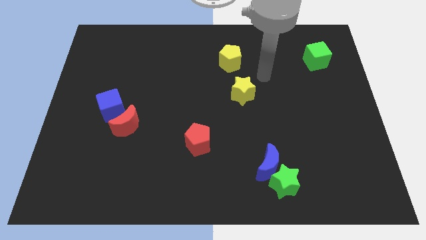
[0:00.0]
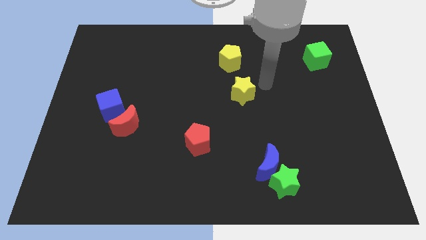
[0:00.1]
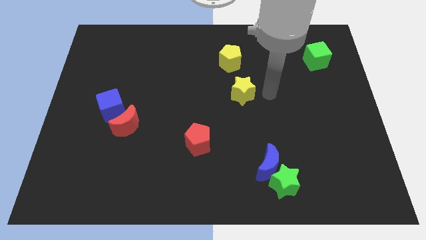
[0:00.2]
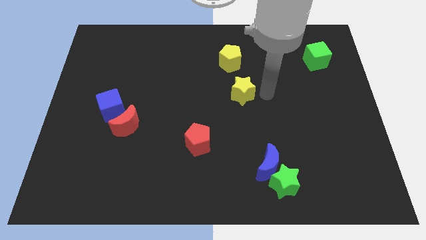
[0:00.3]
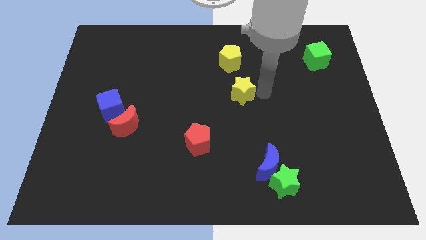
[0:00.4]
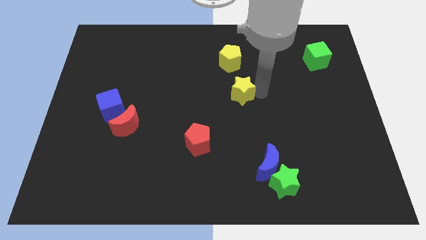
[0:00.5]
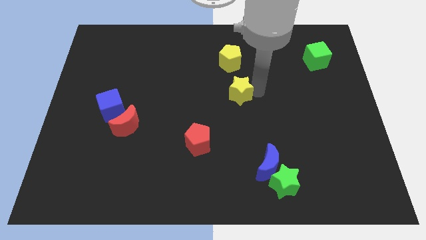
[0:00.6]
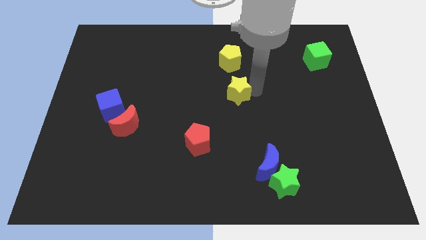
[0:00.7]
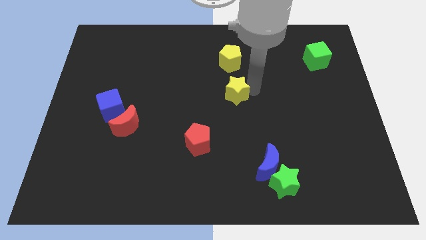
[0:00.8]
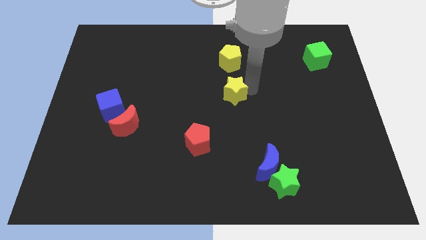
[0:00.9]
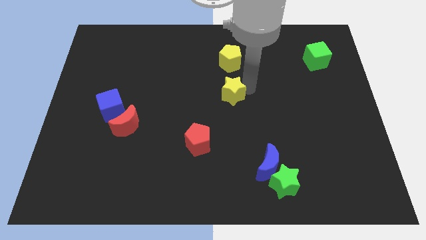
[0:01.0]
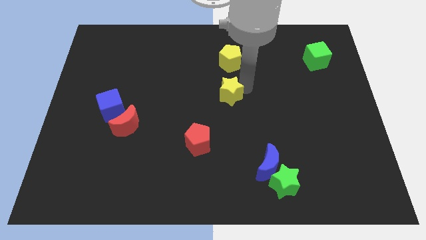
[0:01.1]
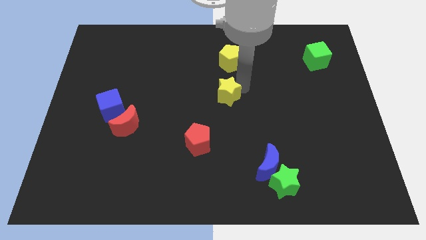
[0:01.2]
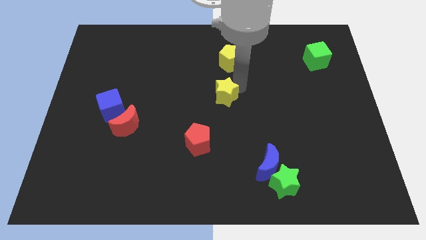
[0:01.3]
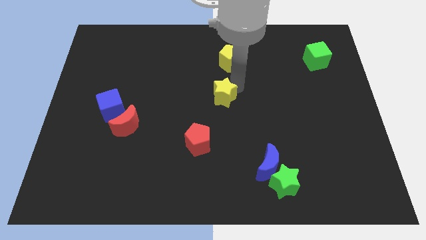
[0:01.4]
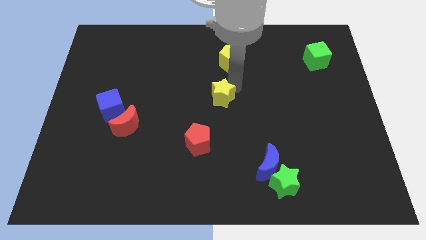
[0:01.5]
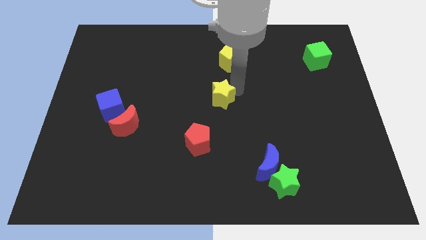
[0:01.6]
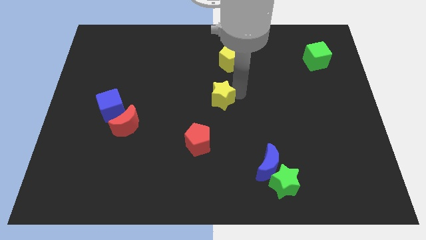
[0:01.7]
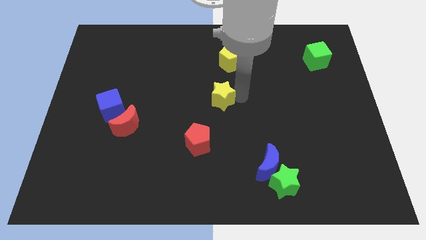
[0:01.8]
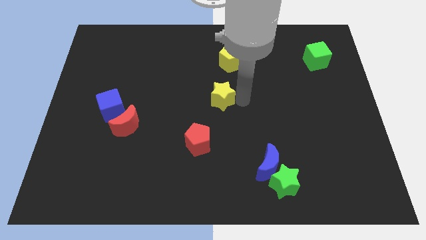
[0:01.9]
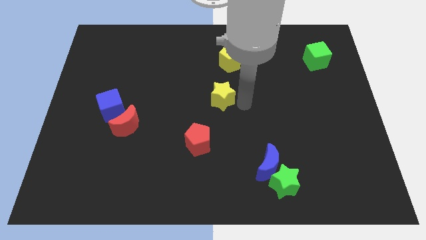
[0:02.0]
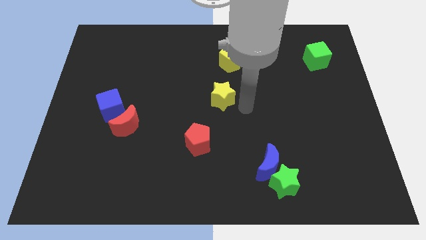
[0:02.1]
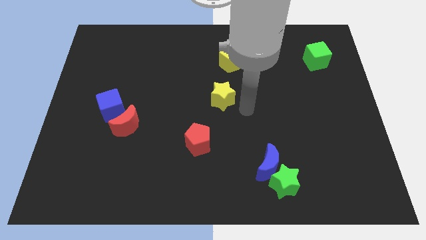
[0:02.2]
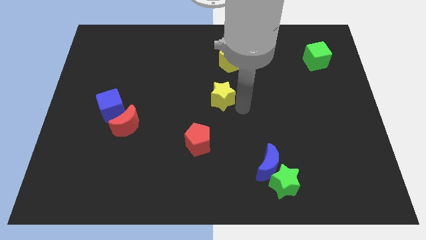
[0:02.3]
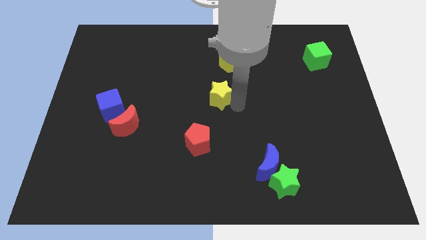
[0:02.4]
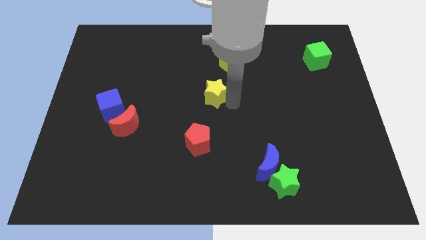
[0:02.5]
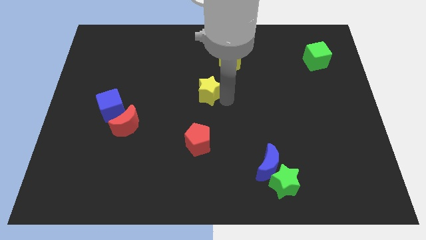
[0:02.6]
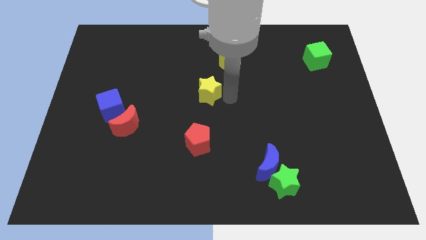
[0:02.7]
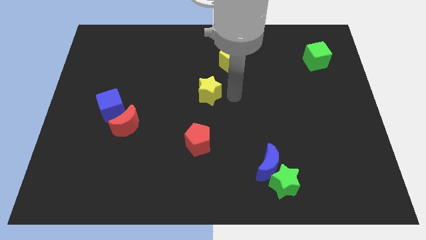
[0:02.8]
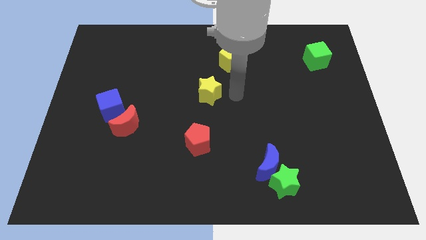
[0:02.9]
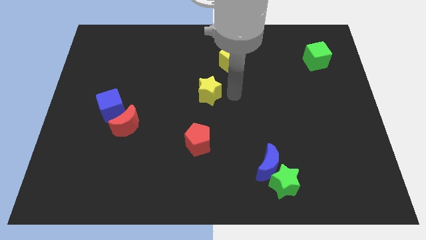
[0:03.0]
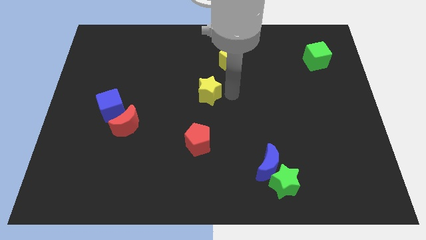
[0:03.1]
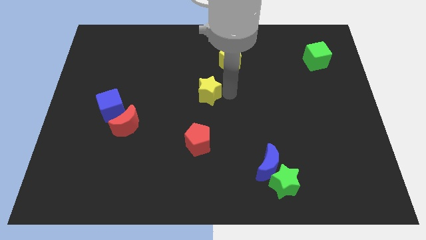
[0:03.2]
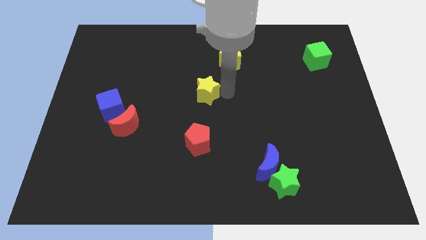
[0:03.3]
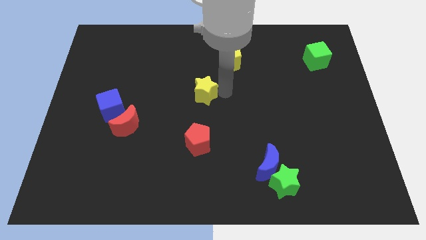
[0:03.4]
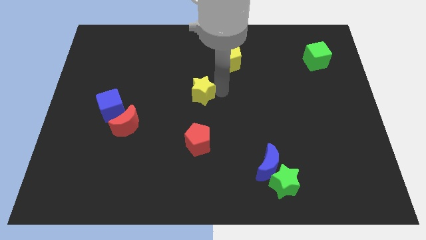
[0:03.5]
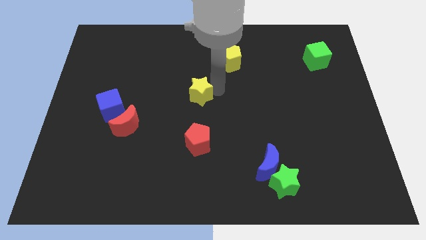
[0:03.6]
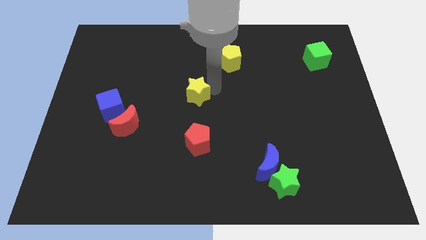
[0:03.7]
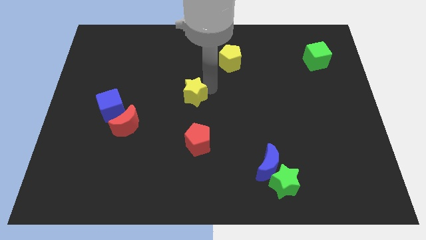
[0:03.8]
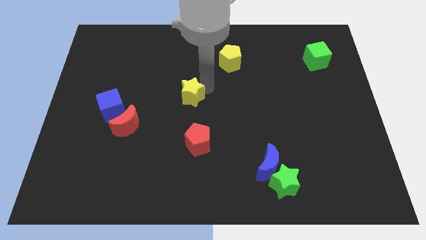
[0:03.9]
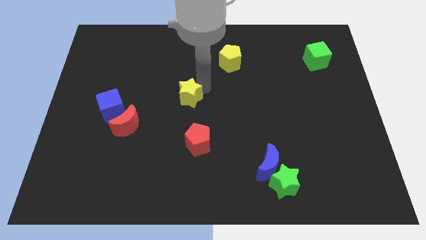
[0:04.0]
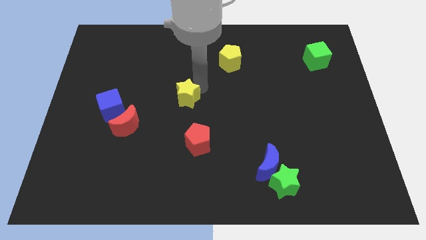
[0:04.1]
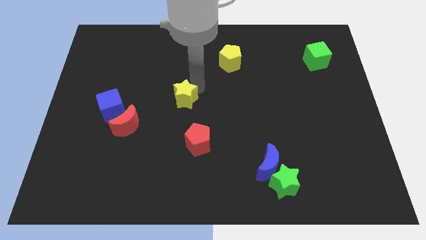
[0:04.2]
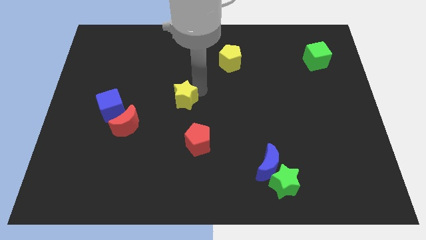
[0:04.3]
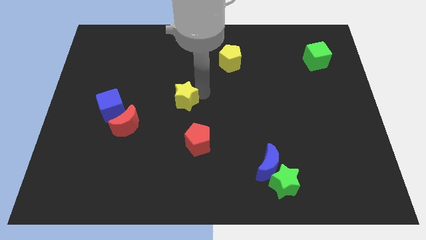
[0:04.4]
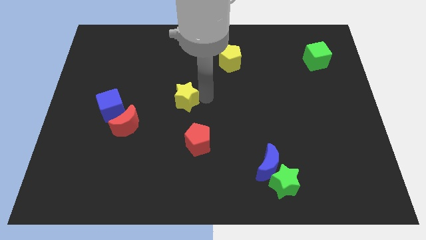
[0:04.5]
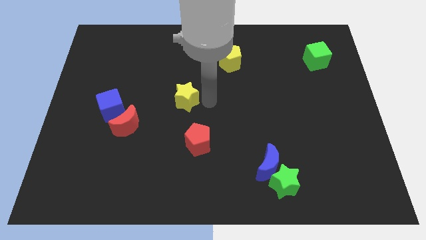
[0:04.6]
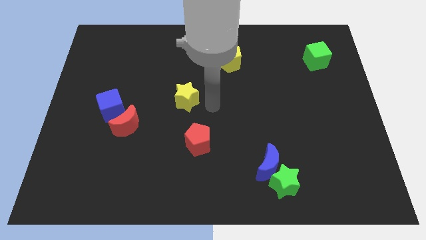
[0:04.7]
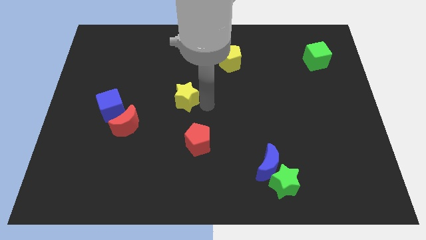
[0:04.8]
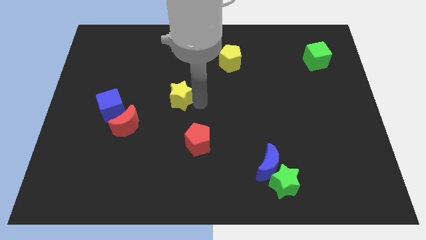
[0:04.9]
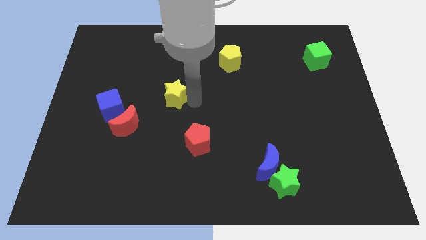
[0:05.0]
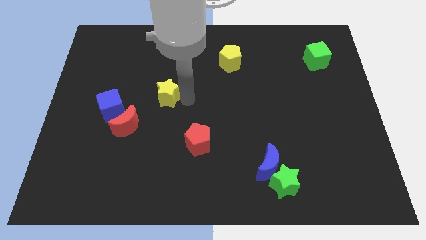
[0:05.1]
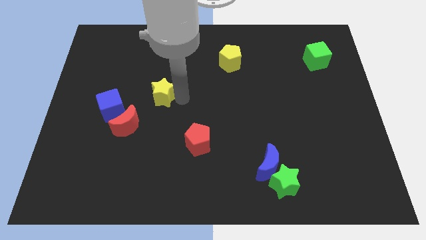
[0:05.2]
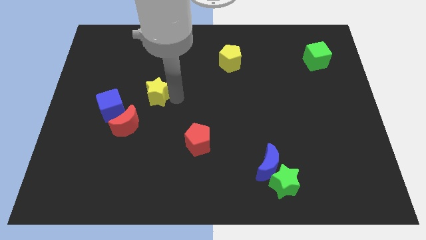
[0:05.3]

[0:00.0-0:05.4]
move the yellow star to the left

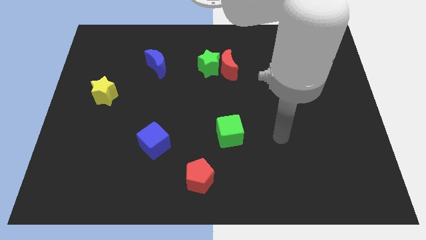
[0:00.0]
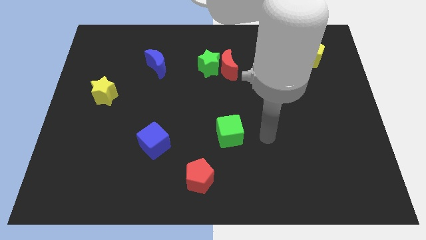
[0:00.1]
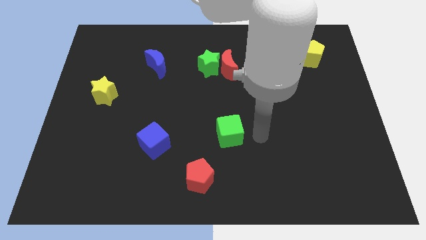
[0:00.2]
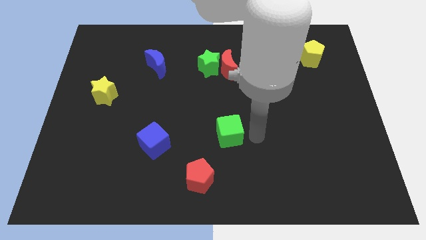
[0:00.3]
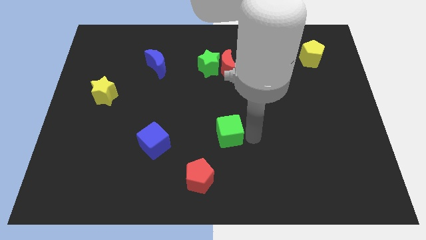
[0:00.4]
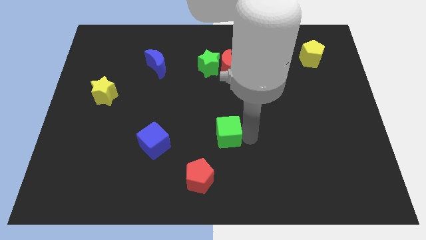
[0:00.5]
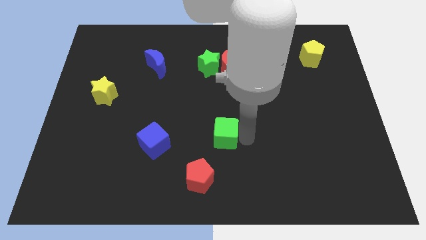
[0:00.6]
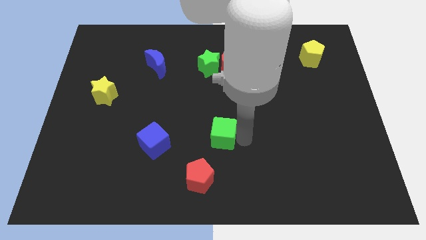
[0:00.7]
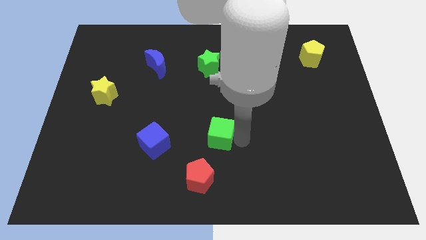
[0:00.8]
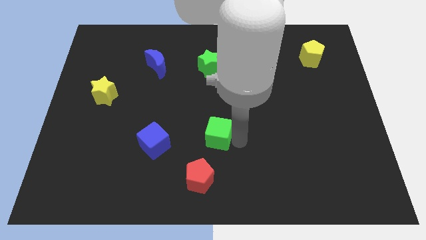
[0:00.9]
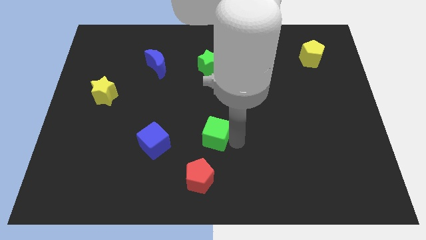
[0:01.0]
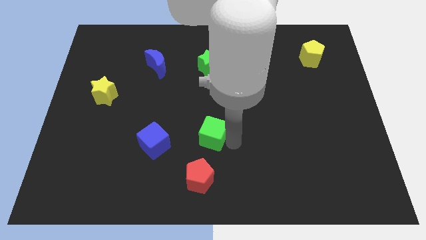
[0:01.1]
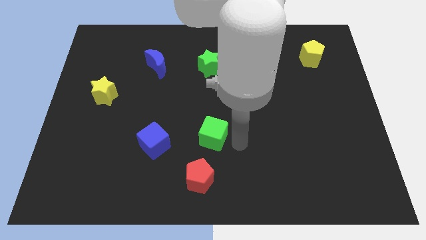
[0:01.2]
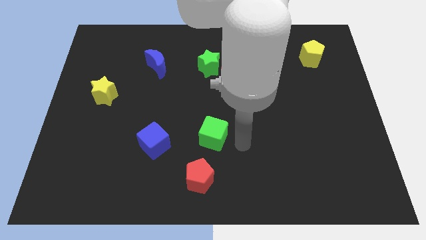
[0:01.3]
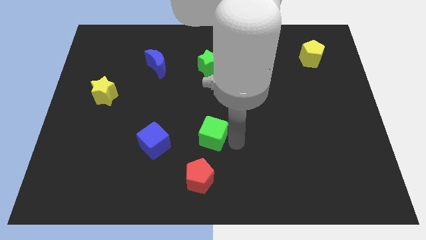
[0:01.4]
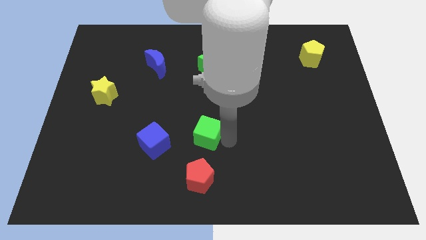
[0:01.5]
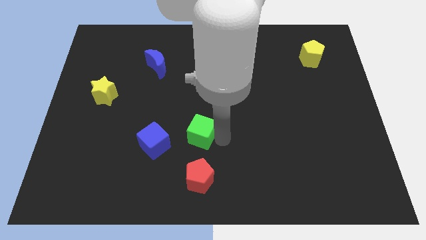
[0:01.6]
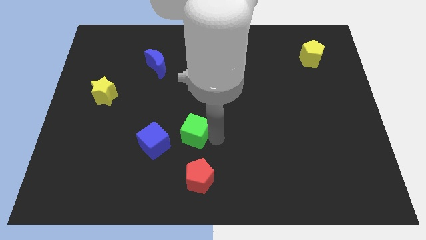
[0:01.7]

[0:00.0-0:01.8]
push the green cube to the left a bit

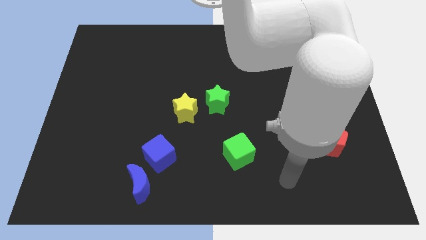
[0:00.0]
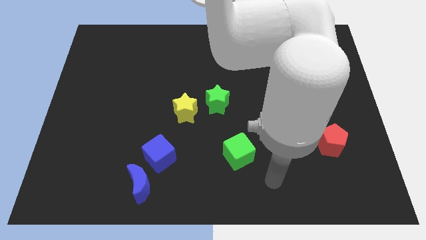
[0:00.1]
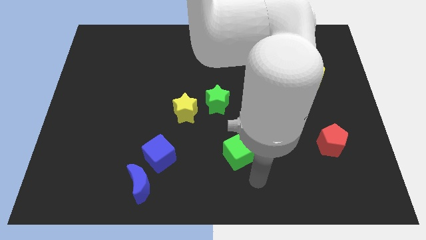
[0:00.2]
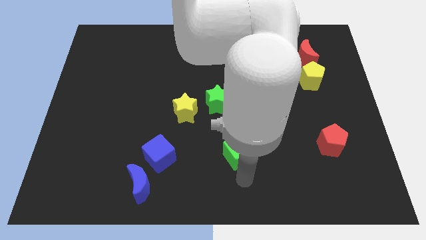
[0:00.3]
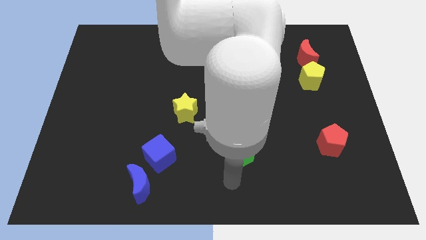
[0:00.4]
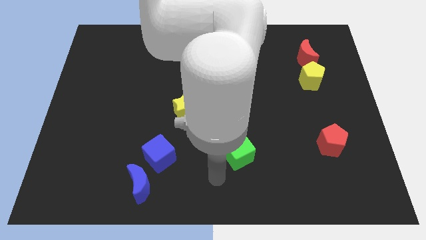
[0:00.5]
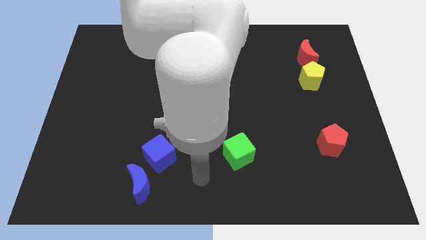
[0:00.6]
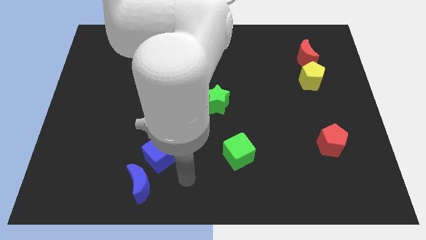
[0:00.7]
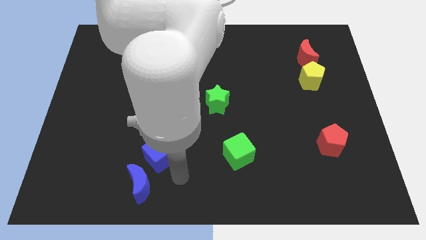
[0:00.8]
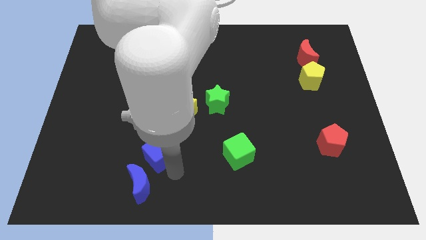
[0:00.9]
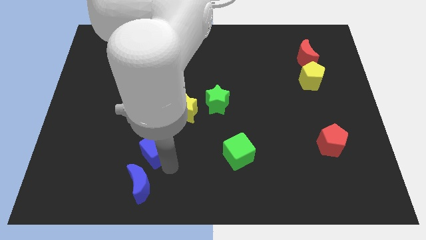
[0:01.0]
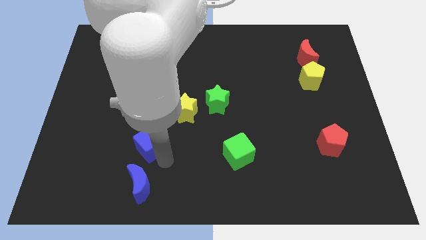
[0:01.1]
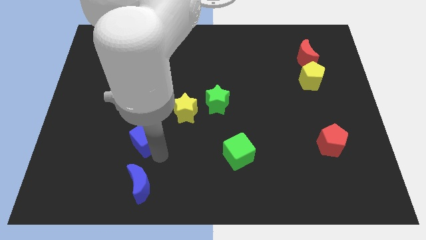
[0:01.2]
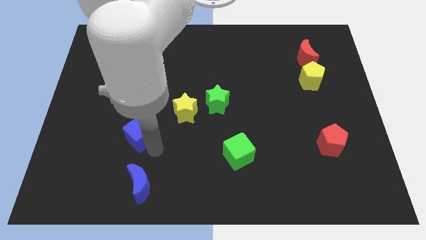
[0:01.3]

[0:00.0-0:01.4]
slide the blue cube up and left diagonally a little
